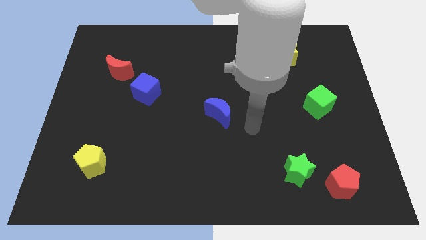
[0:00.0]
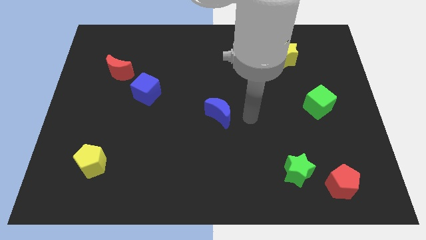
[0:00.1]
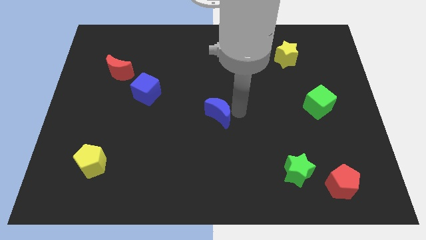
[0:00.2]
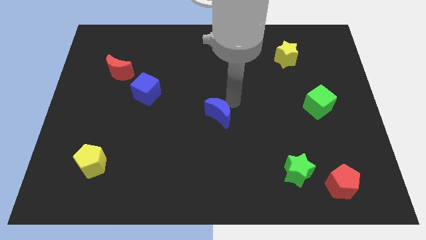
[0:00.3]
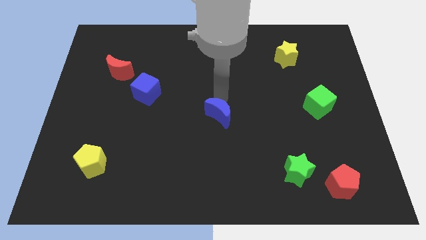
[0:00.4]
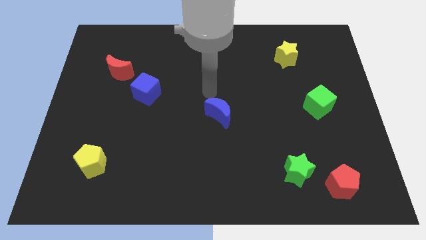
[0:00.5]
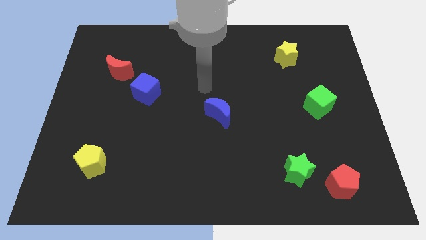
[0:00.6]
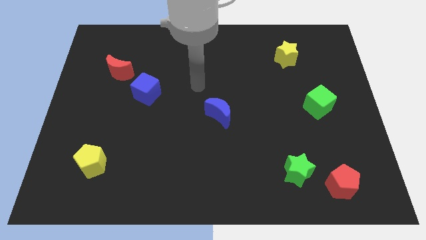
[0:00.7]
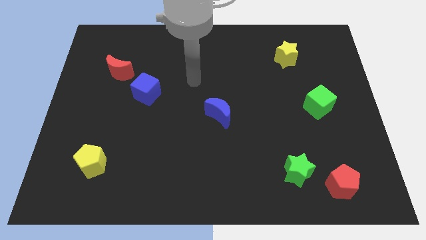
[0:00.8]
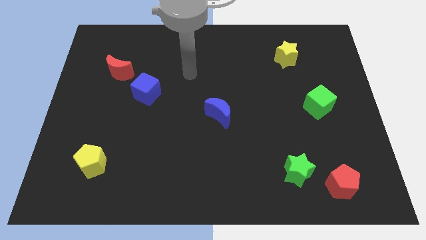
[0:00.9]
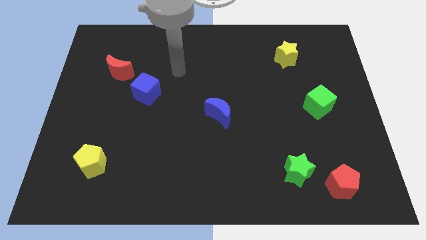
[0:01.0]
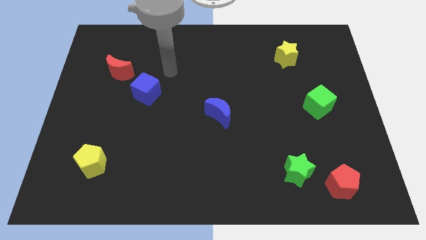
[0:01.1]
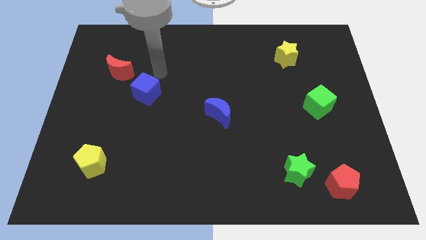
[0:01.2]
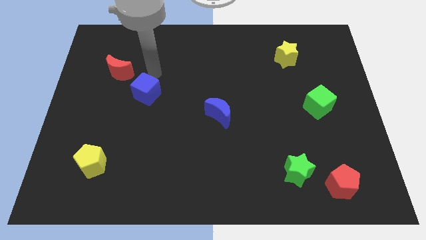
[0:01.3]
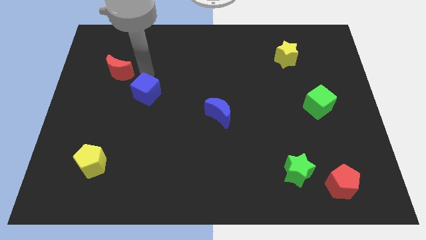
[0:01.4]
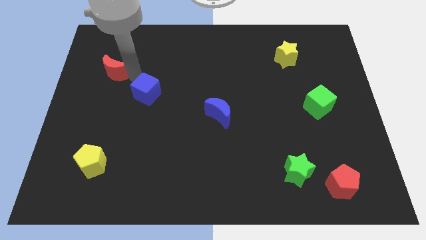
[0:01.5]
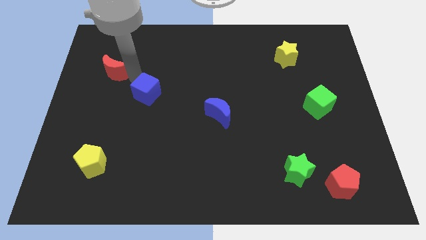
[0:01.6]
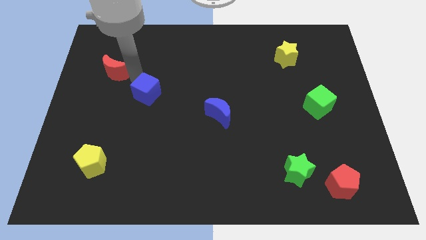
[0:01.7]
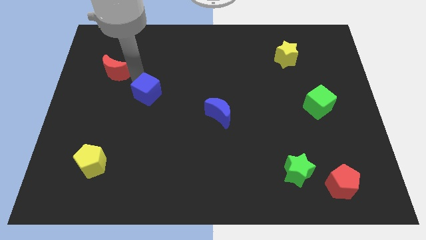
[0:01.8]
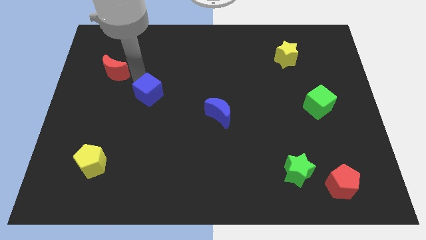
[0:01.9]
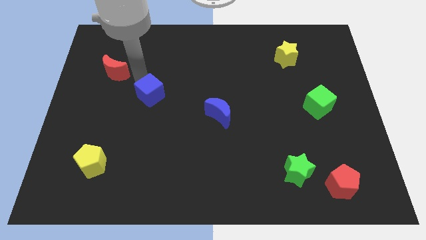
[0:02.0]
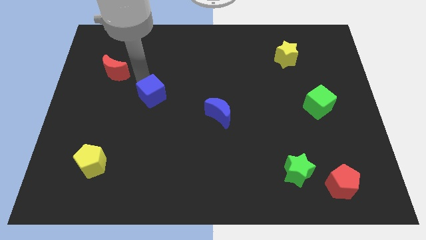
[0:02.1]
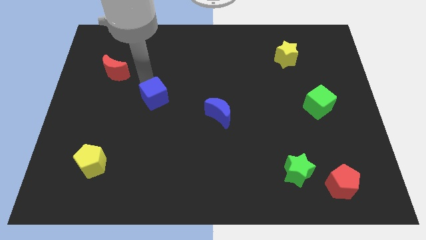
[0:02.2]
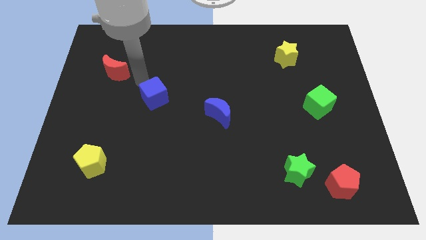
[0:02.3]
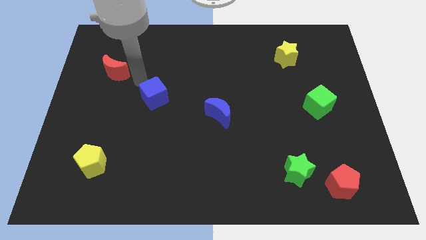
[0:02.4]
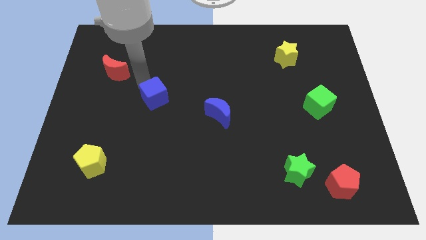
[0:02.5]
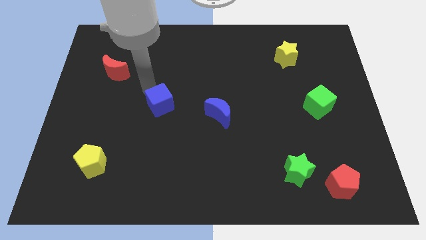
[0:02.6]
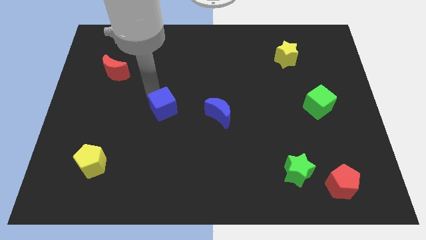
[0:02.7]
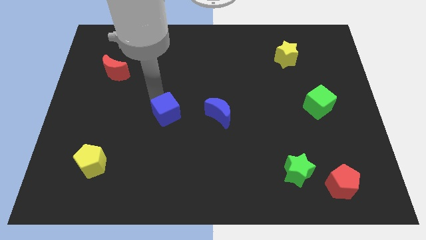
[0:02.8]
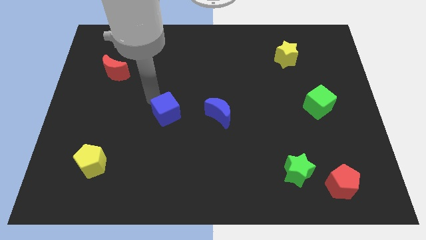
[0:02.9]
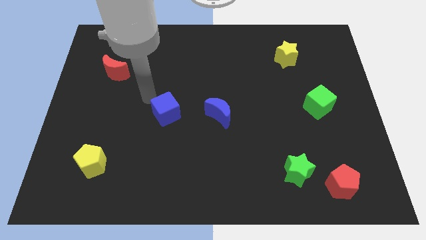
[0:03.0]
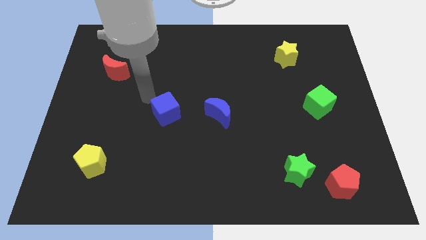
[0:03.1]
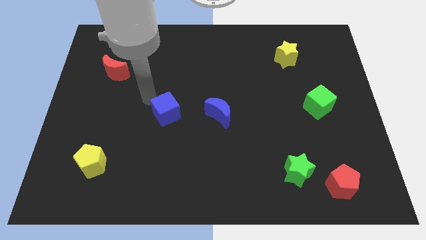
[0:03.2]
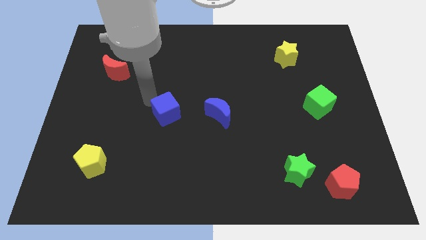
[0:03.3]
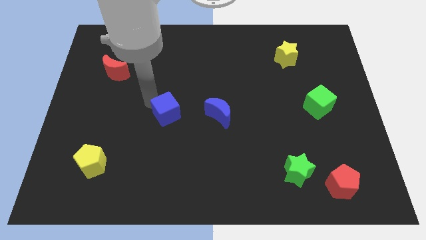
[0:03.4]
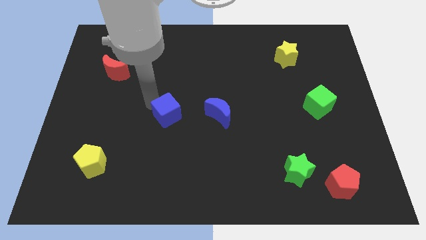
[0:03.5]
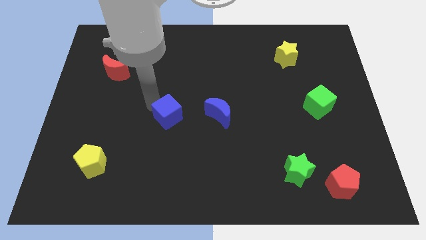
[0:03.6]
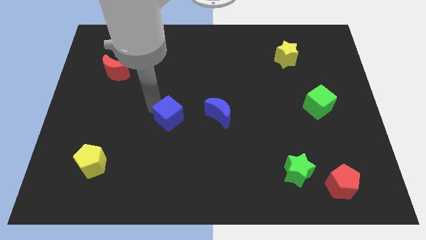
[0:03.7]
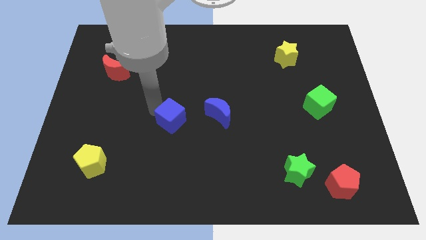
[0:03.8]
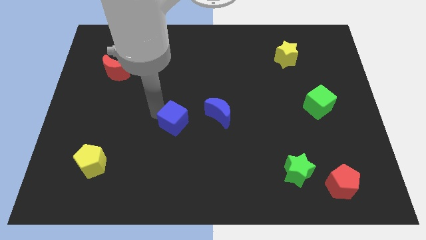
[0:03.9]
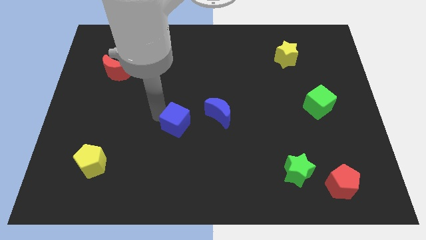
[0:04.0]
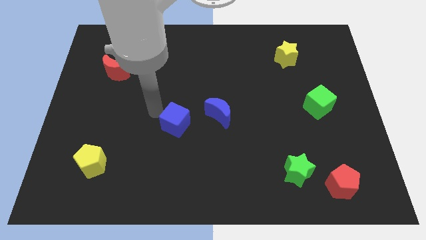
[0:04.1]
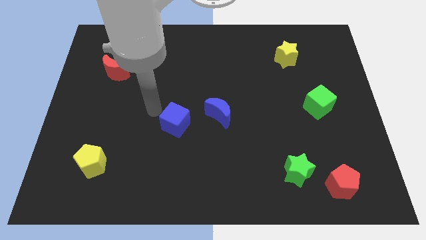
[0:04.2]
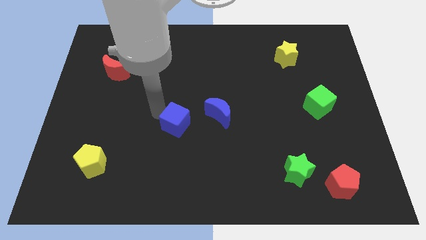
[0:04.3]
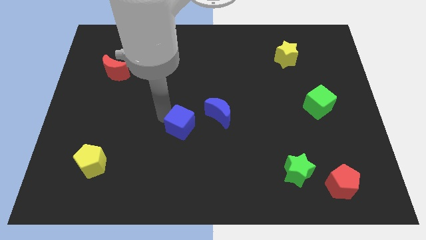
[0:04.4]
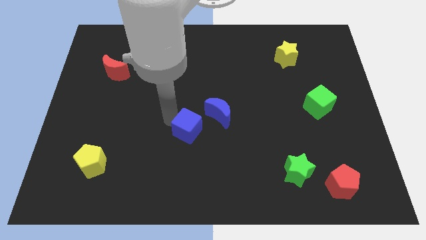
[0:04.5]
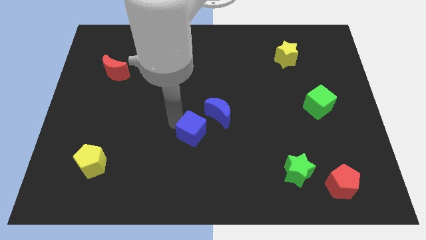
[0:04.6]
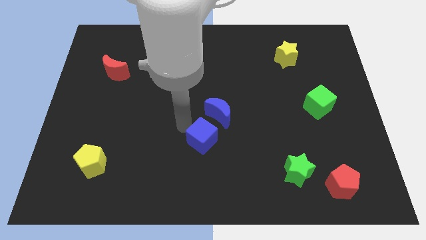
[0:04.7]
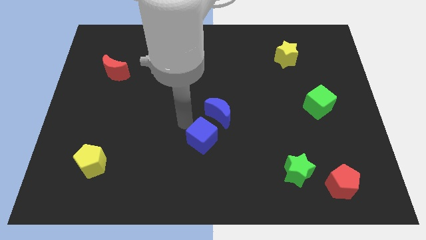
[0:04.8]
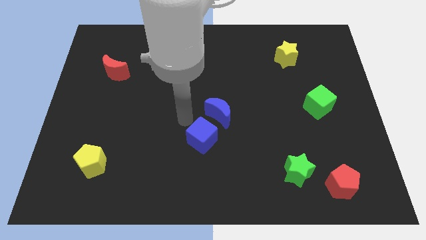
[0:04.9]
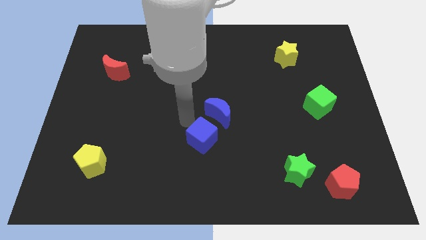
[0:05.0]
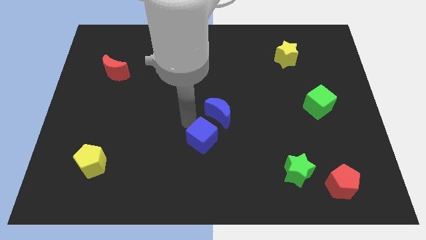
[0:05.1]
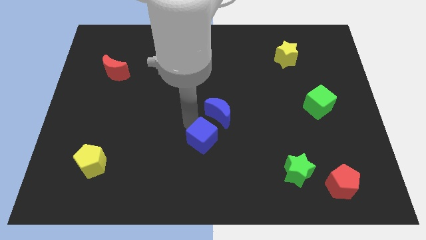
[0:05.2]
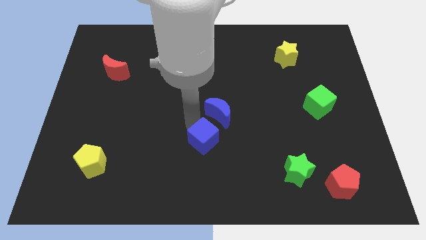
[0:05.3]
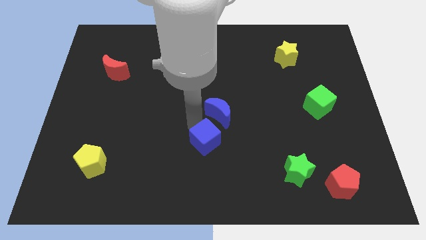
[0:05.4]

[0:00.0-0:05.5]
push the blue cube down and then to the right

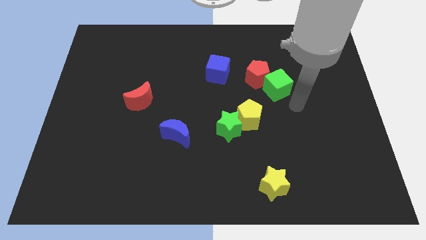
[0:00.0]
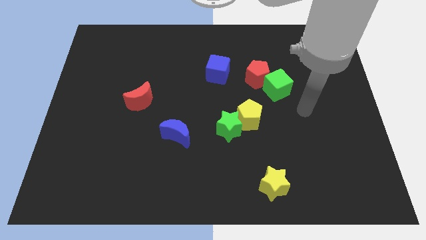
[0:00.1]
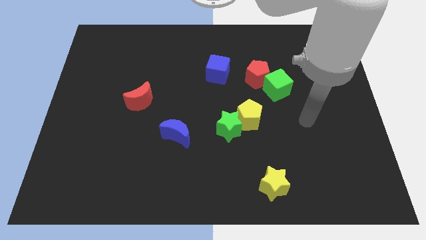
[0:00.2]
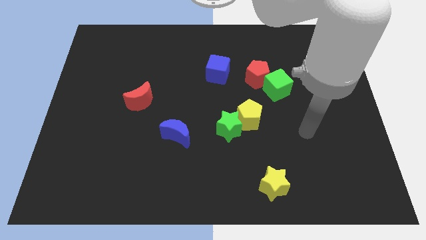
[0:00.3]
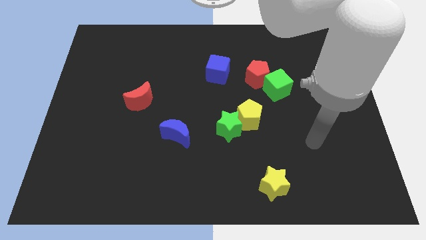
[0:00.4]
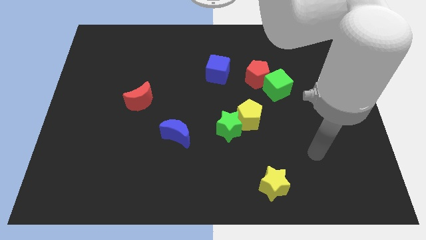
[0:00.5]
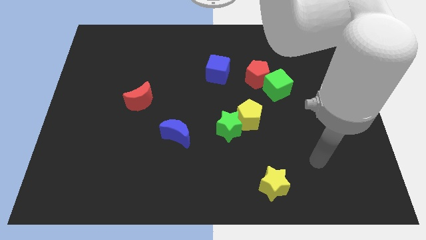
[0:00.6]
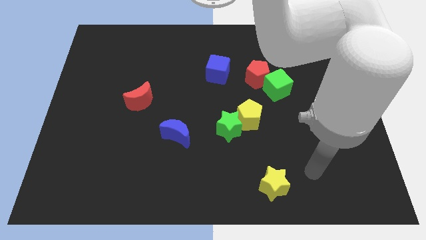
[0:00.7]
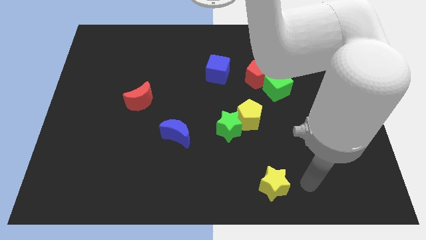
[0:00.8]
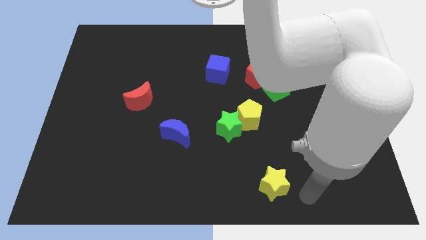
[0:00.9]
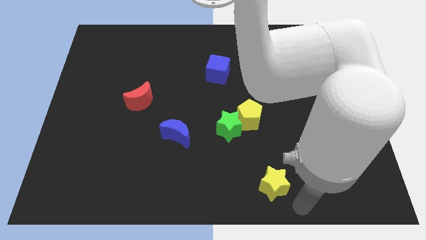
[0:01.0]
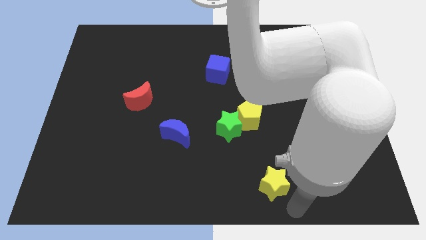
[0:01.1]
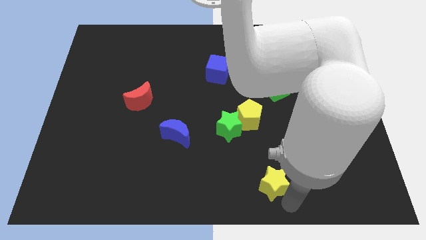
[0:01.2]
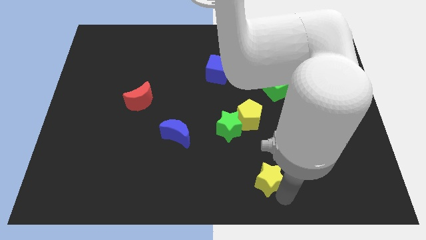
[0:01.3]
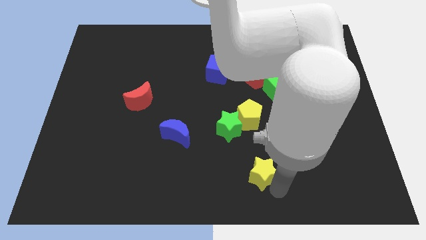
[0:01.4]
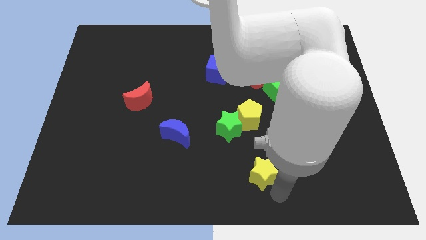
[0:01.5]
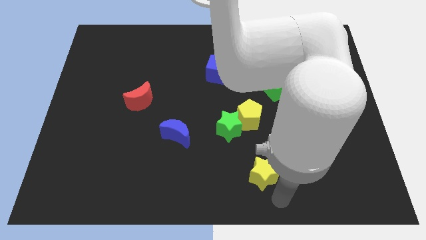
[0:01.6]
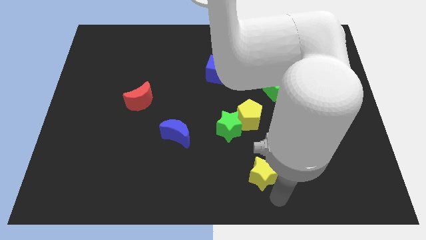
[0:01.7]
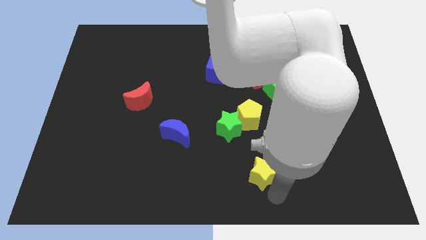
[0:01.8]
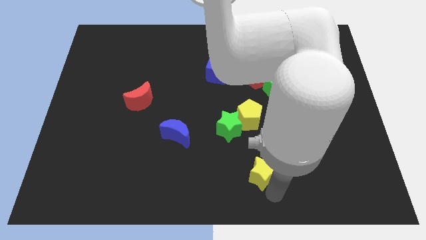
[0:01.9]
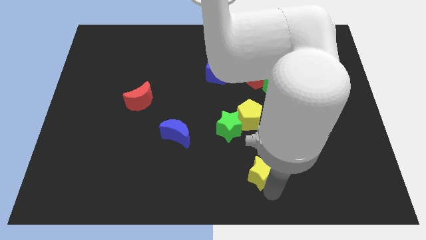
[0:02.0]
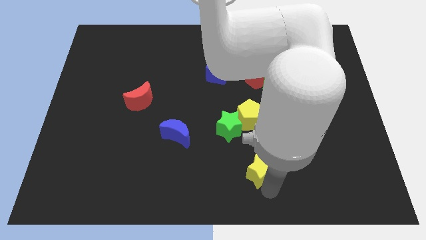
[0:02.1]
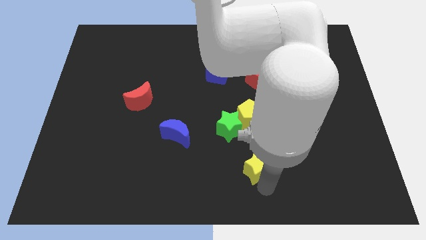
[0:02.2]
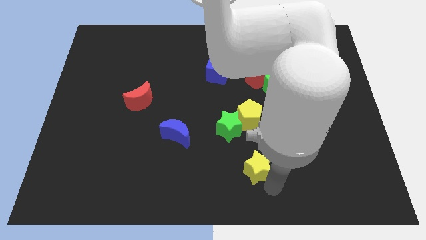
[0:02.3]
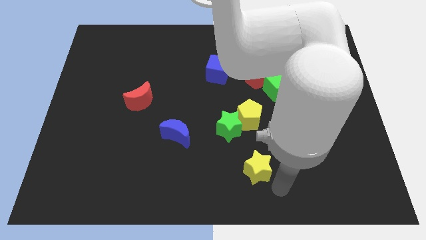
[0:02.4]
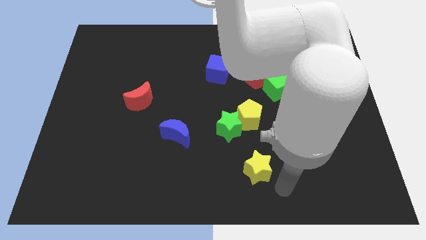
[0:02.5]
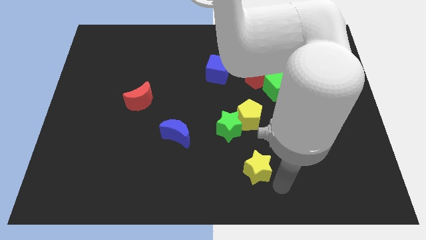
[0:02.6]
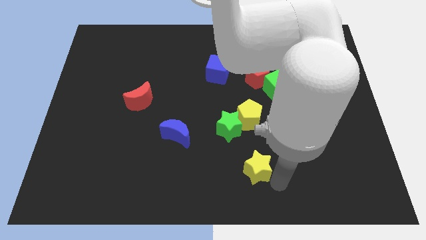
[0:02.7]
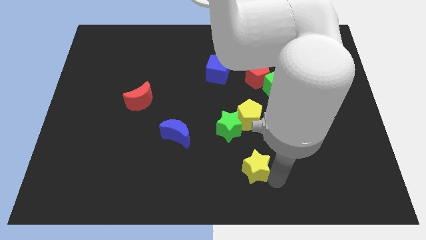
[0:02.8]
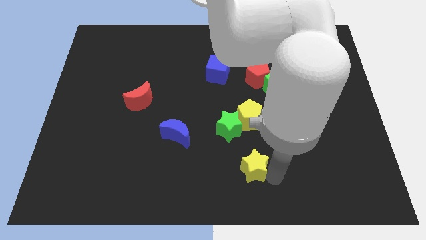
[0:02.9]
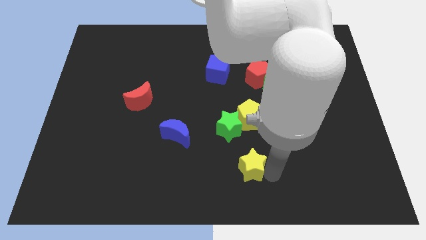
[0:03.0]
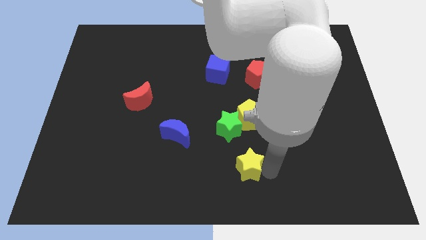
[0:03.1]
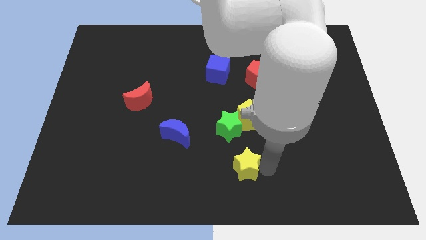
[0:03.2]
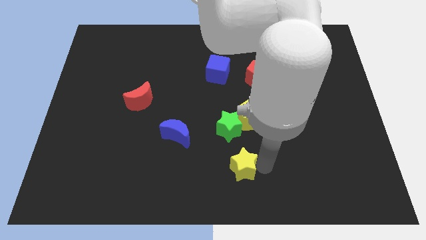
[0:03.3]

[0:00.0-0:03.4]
slide the yellow star upwards and then to the left somewhat
